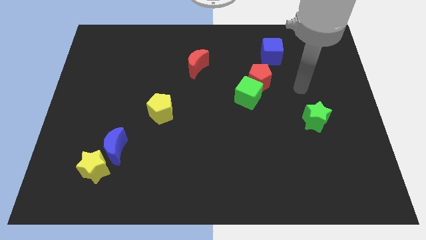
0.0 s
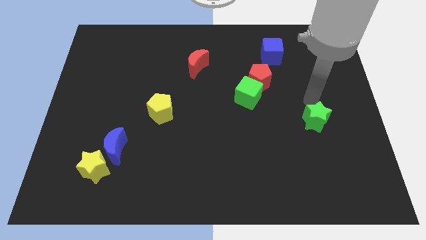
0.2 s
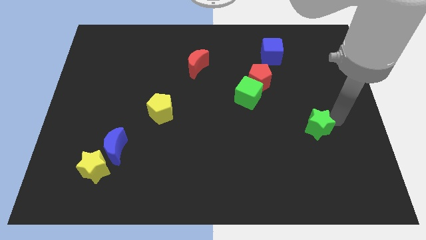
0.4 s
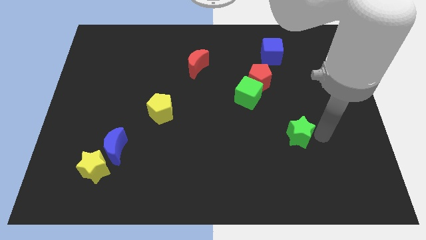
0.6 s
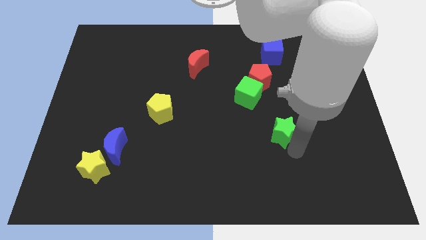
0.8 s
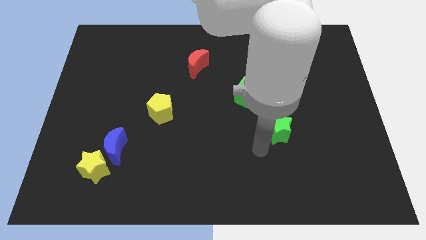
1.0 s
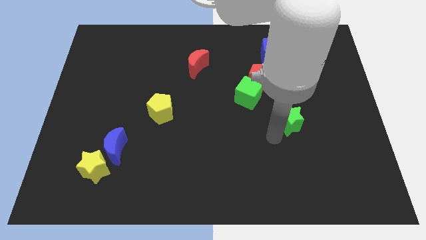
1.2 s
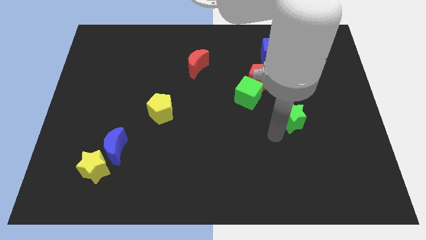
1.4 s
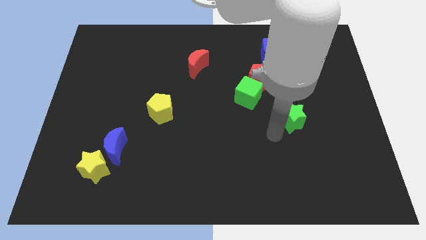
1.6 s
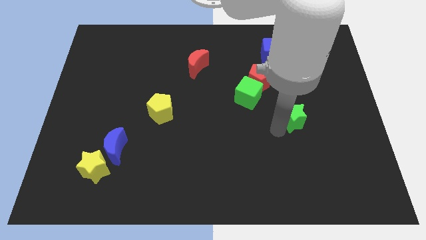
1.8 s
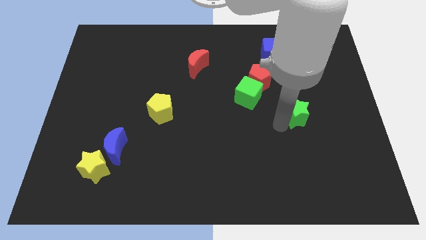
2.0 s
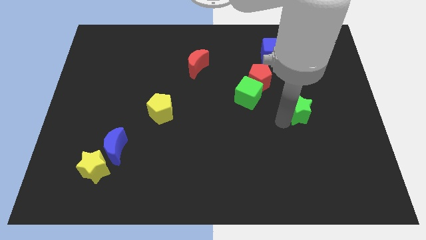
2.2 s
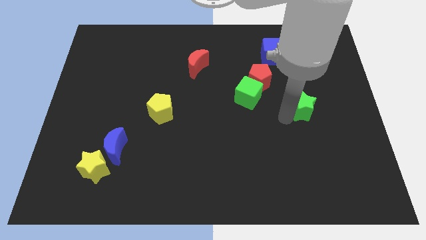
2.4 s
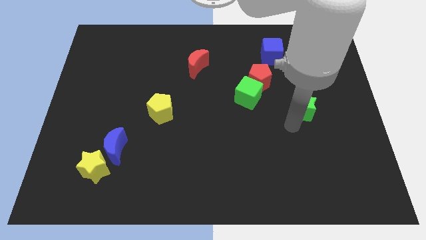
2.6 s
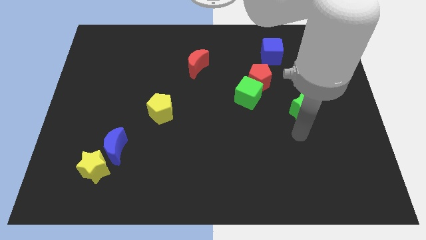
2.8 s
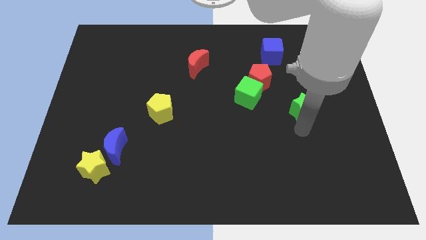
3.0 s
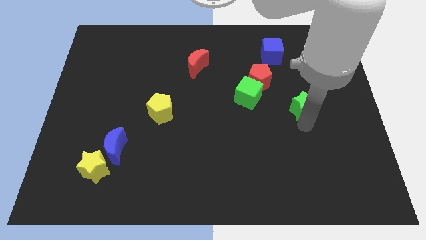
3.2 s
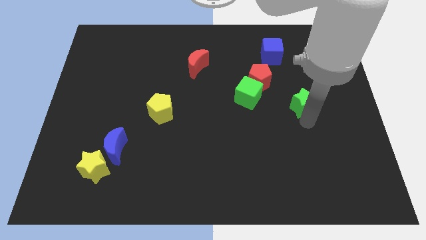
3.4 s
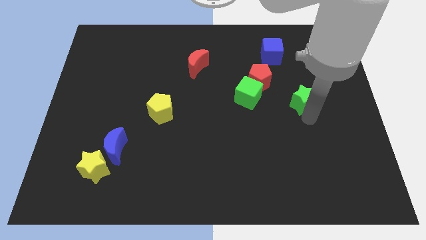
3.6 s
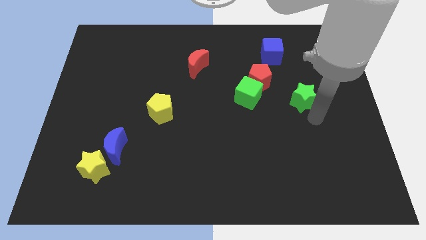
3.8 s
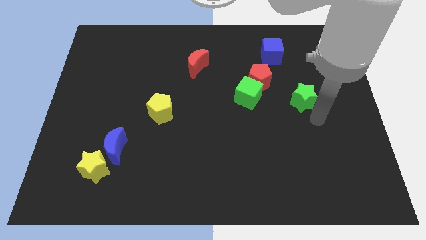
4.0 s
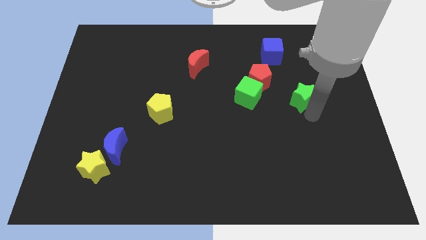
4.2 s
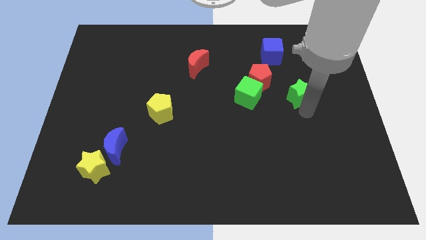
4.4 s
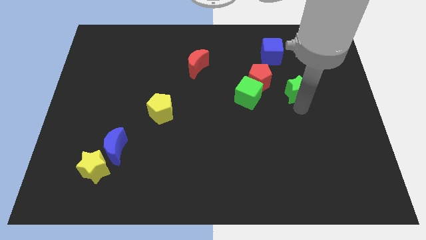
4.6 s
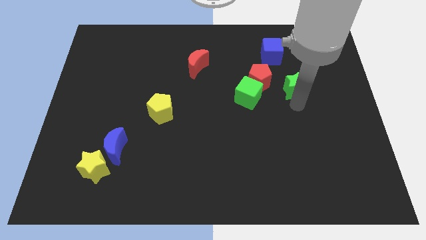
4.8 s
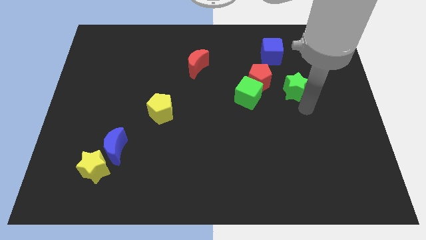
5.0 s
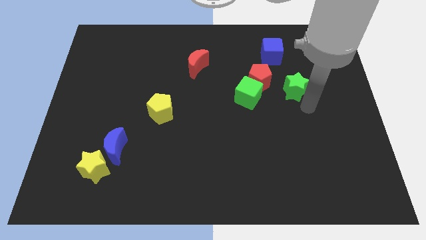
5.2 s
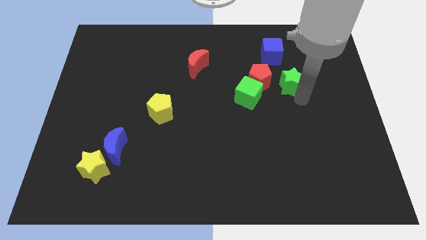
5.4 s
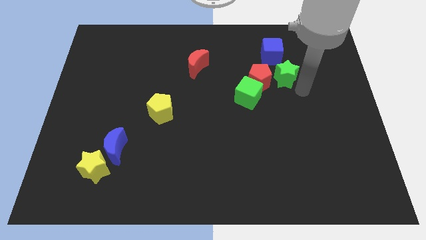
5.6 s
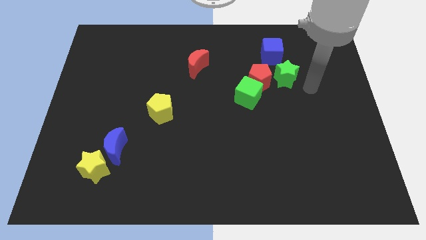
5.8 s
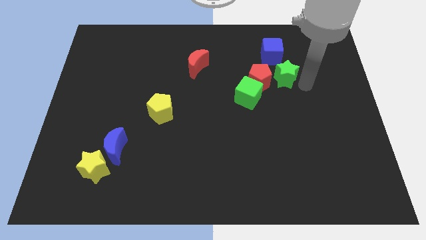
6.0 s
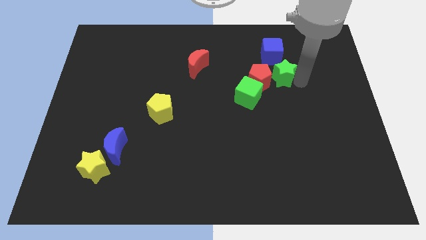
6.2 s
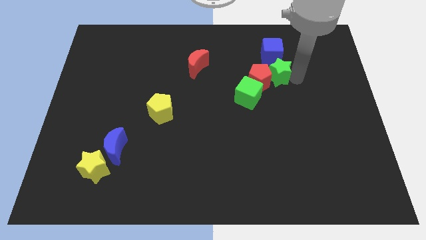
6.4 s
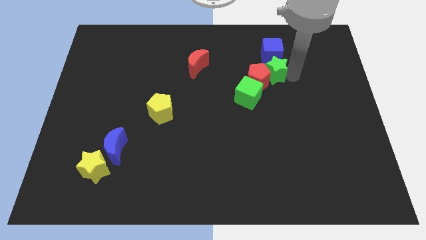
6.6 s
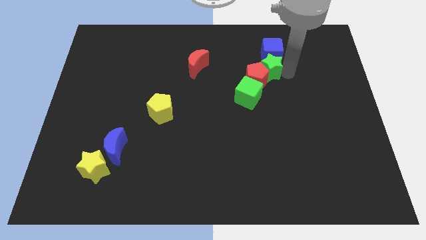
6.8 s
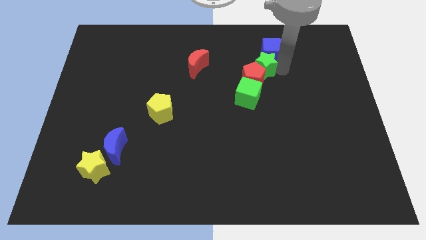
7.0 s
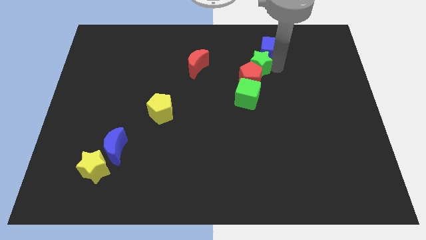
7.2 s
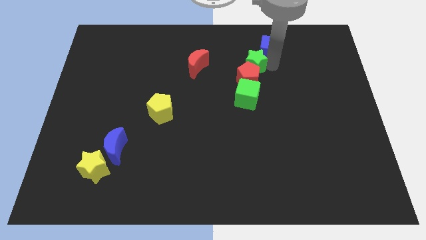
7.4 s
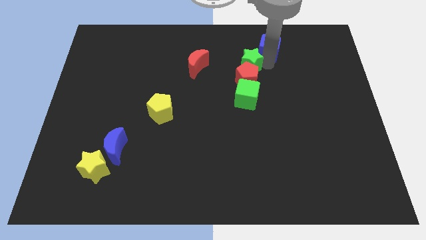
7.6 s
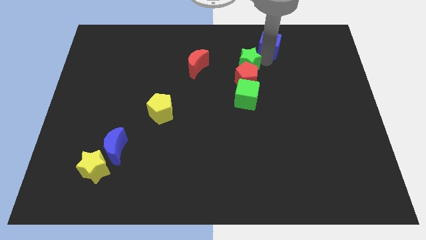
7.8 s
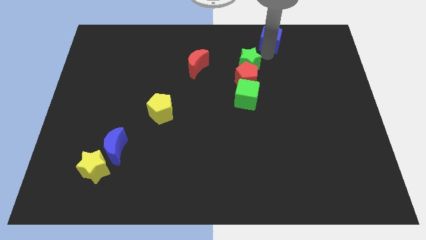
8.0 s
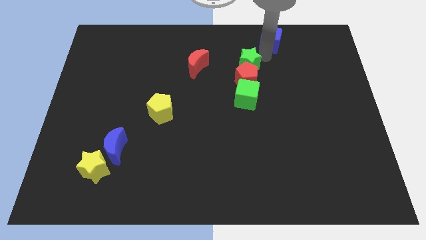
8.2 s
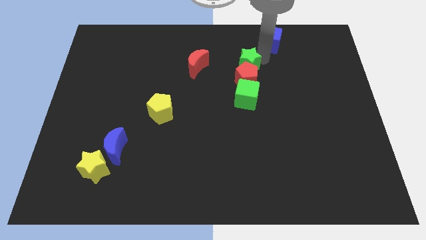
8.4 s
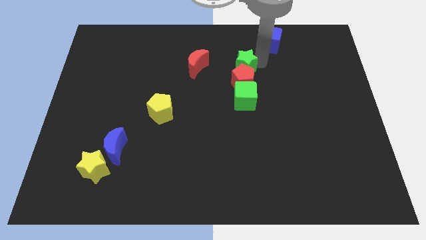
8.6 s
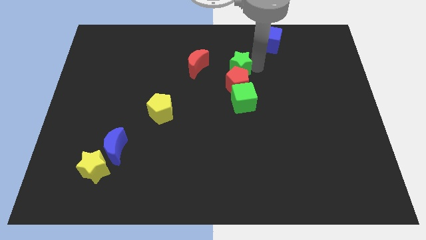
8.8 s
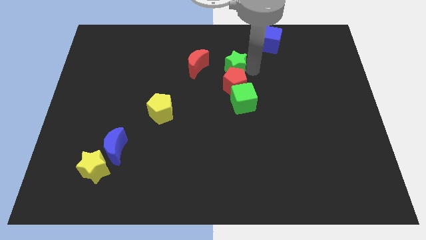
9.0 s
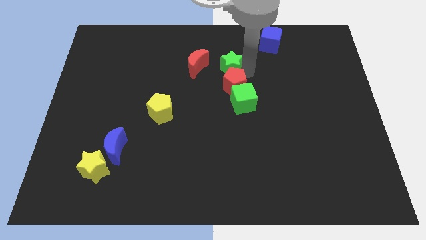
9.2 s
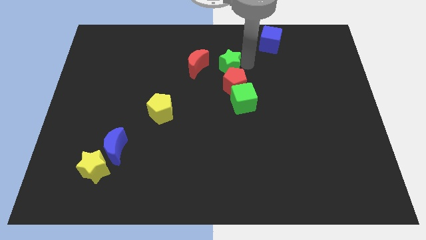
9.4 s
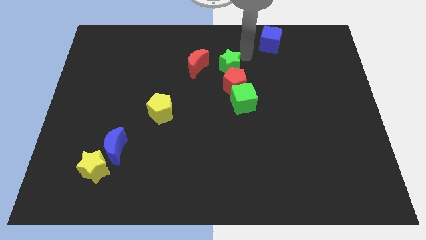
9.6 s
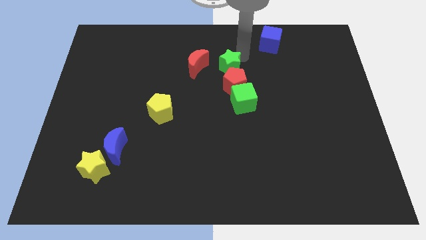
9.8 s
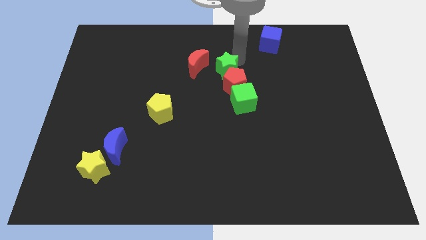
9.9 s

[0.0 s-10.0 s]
put the green star to the bottom right of the red moon
